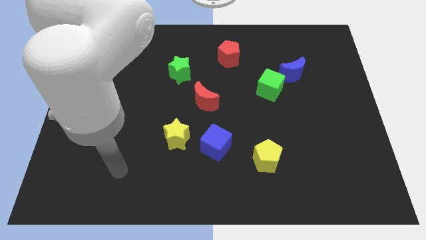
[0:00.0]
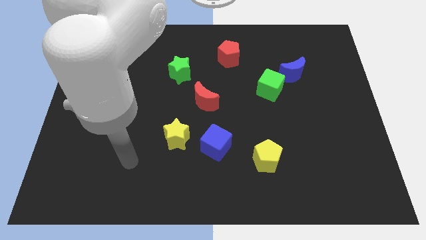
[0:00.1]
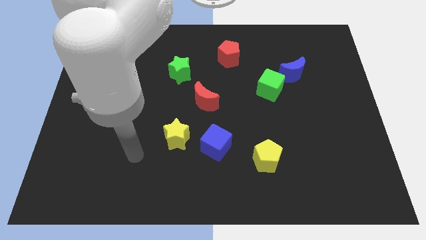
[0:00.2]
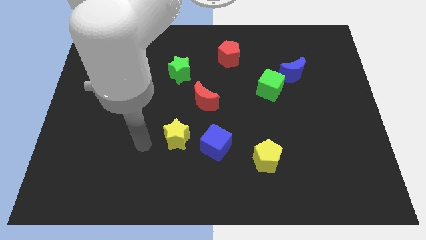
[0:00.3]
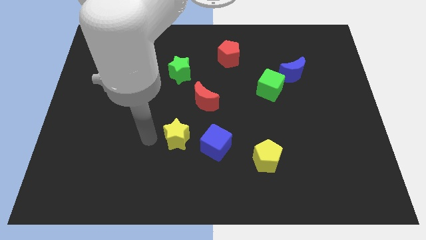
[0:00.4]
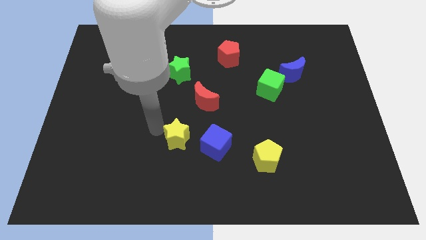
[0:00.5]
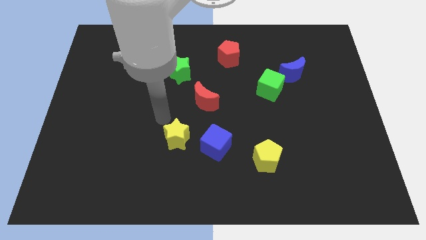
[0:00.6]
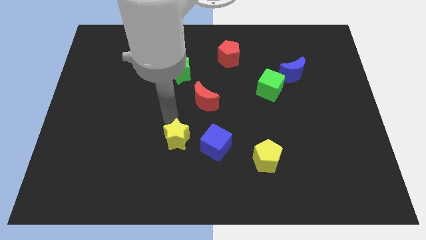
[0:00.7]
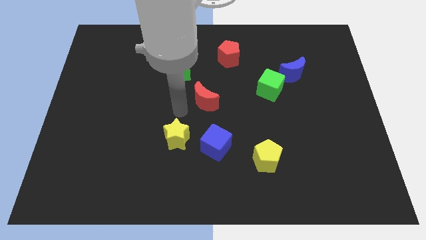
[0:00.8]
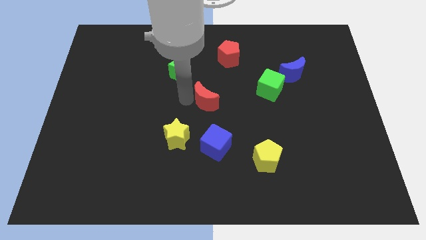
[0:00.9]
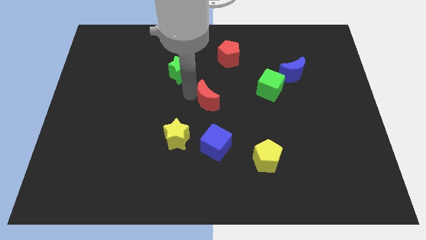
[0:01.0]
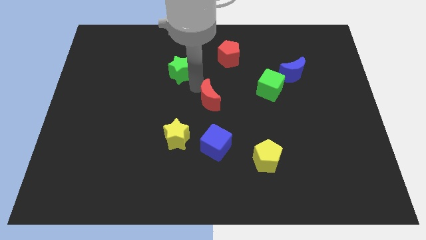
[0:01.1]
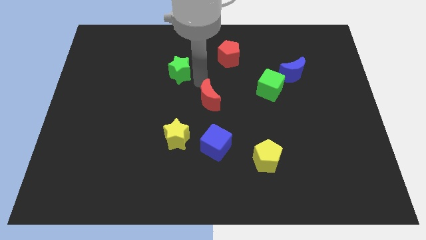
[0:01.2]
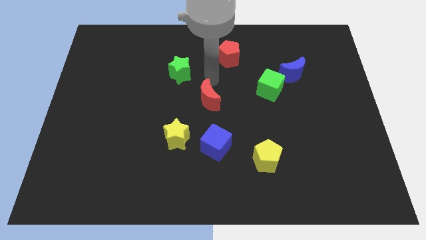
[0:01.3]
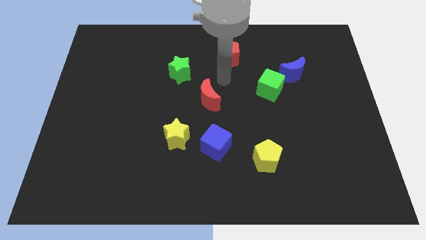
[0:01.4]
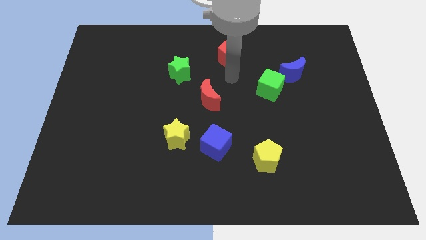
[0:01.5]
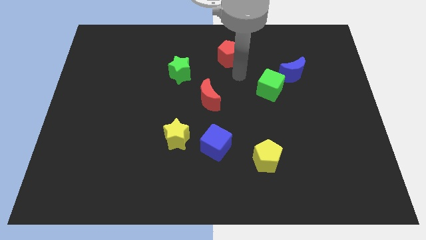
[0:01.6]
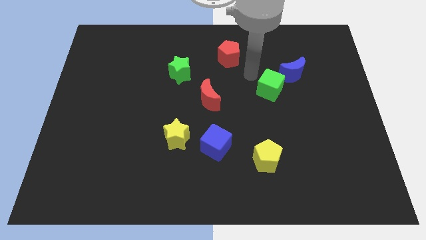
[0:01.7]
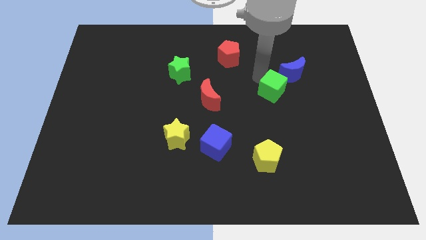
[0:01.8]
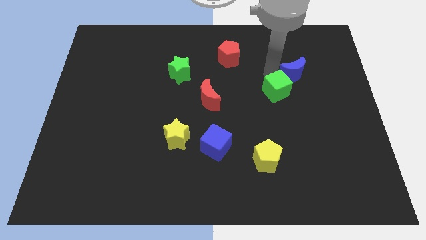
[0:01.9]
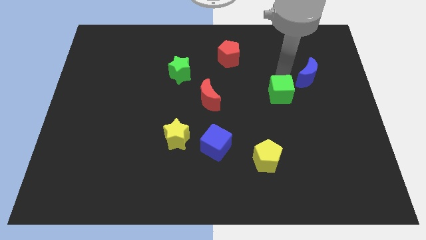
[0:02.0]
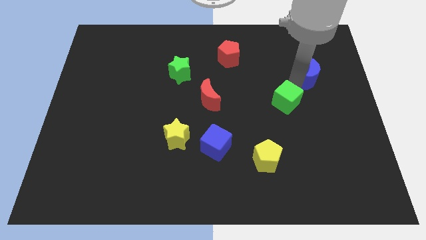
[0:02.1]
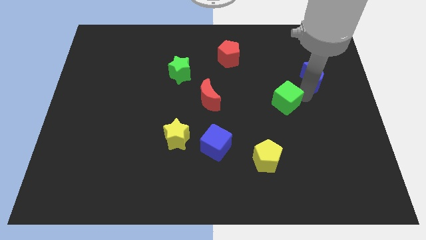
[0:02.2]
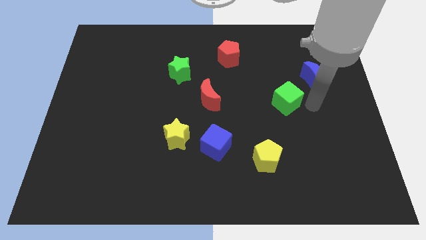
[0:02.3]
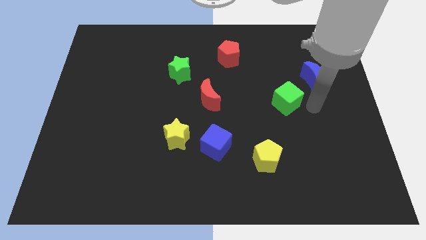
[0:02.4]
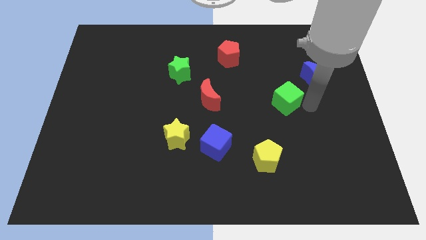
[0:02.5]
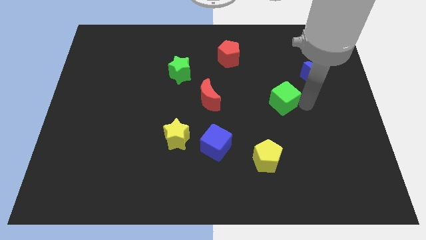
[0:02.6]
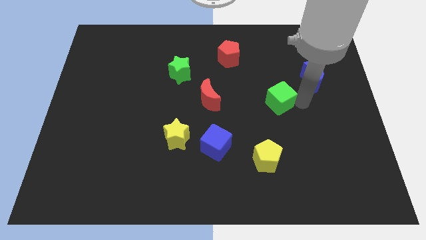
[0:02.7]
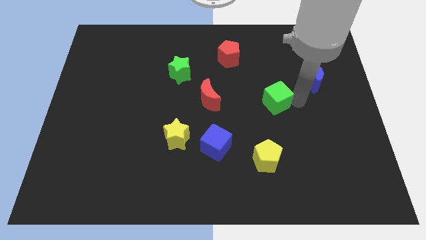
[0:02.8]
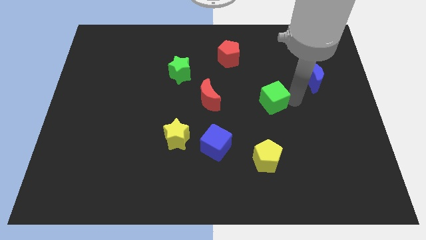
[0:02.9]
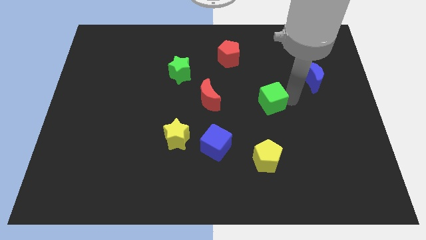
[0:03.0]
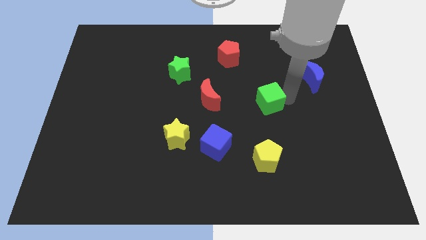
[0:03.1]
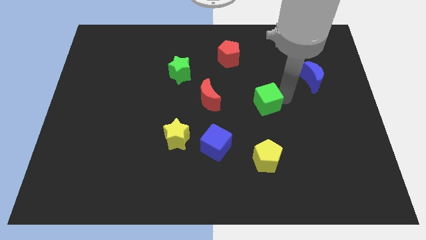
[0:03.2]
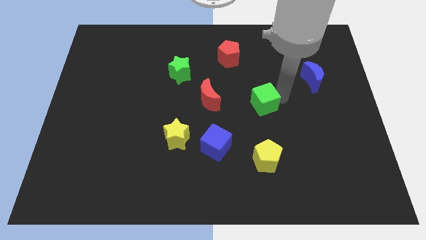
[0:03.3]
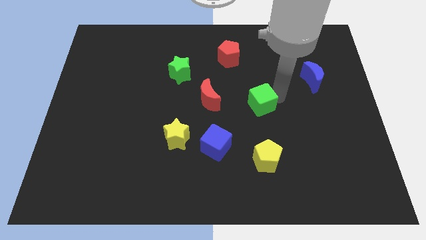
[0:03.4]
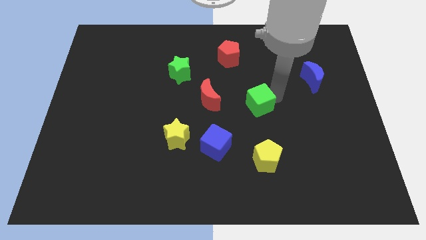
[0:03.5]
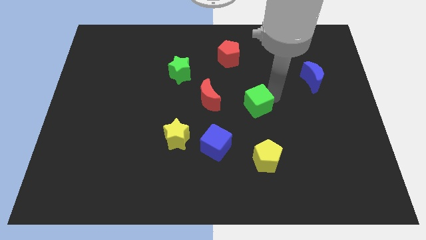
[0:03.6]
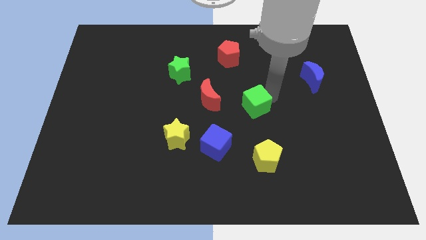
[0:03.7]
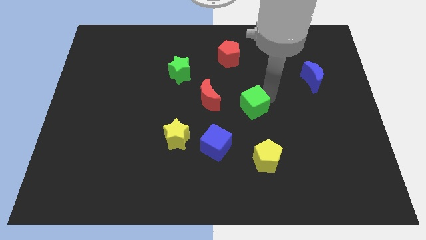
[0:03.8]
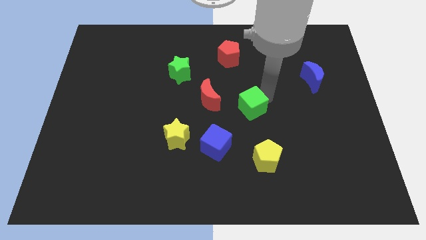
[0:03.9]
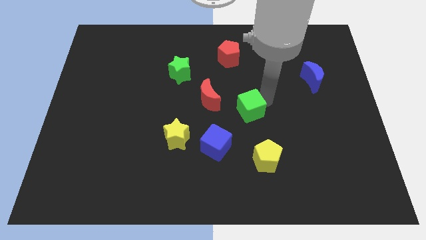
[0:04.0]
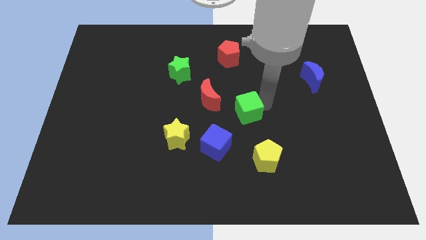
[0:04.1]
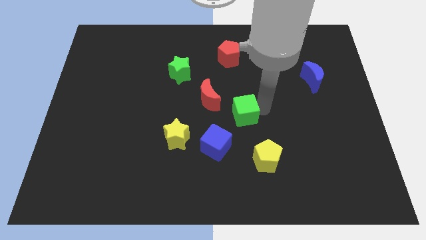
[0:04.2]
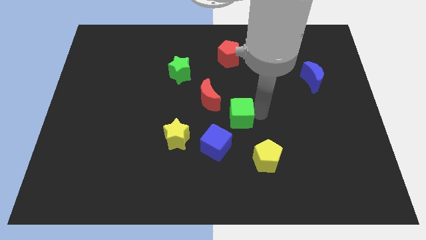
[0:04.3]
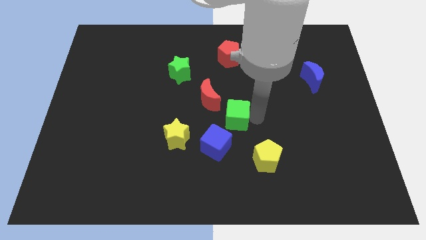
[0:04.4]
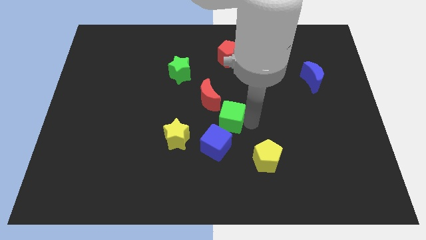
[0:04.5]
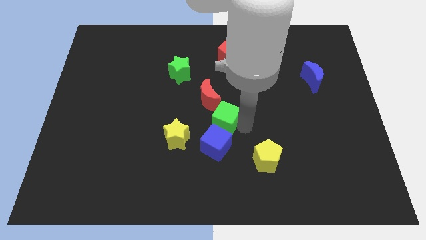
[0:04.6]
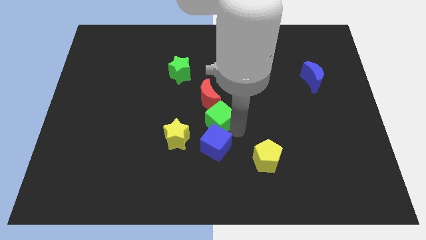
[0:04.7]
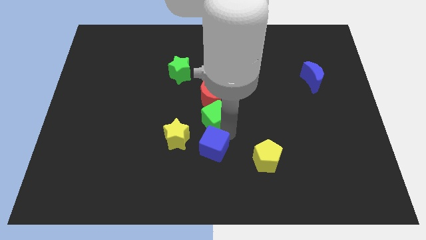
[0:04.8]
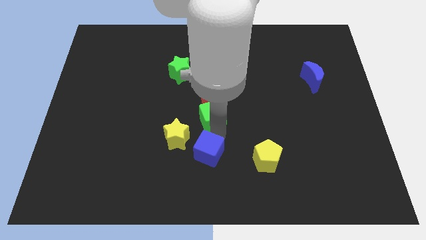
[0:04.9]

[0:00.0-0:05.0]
push the green cube close to the red moon

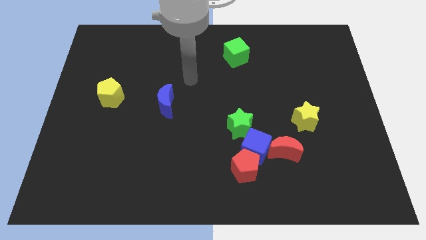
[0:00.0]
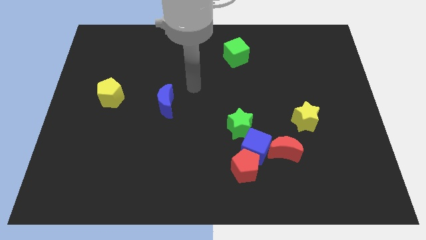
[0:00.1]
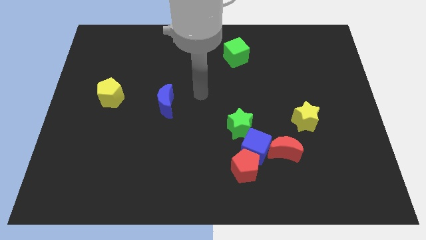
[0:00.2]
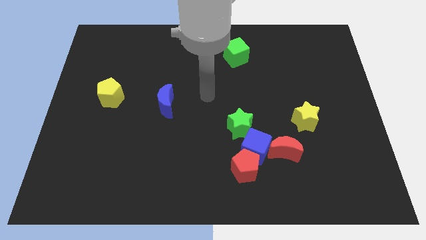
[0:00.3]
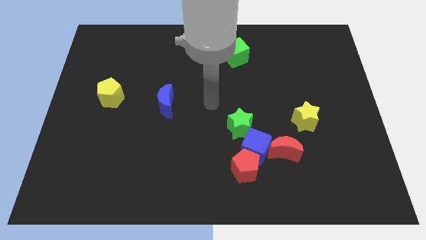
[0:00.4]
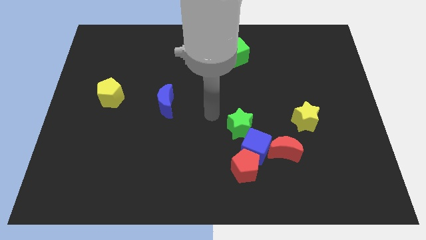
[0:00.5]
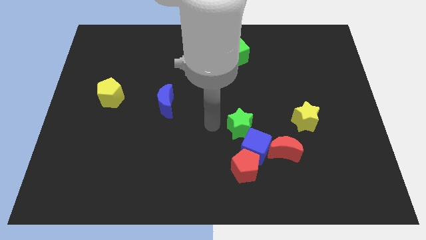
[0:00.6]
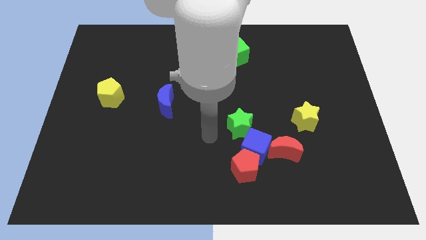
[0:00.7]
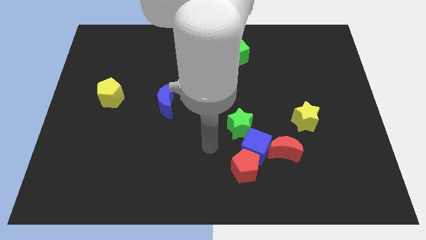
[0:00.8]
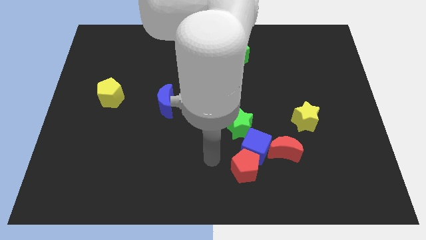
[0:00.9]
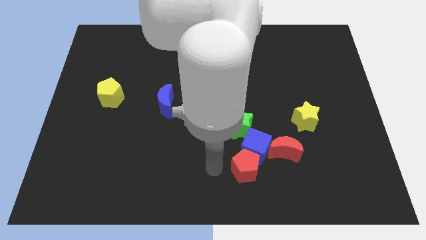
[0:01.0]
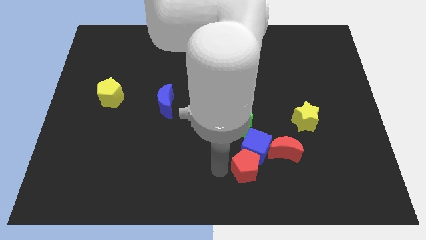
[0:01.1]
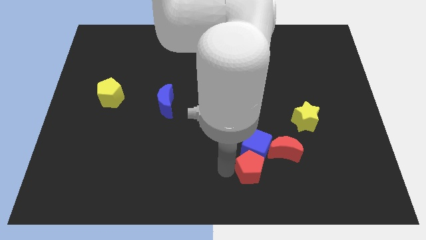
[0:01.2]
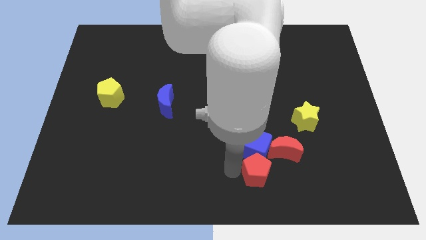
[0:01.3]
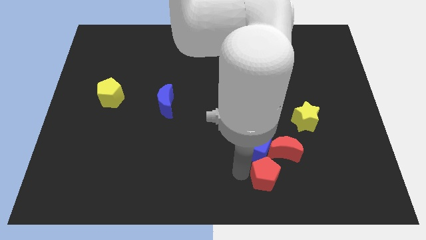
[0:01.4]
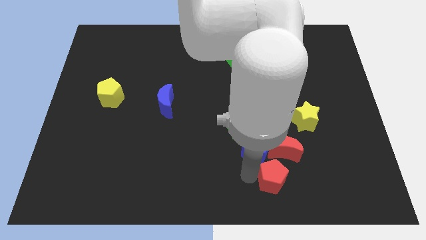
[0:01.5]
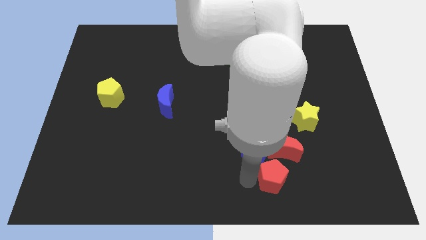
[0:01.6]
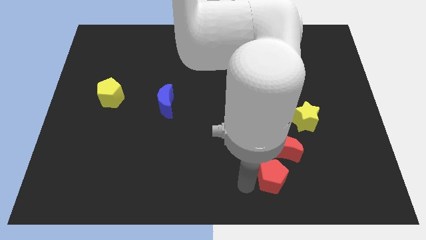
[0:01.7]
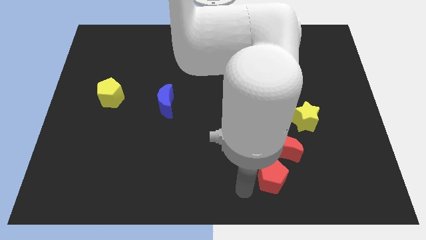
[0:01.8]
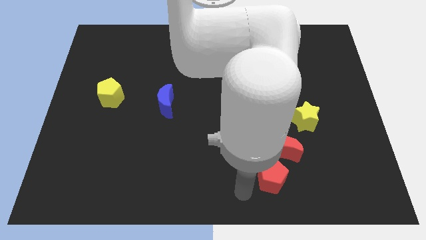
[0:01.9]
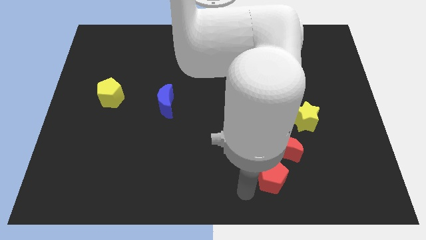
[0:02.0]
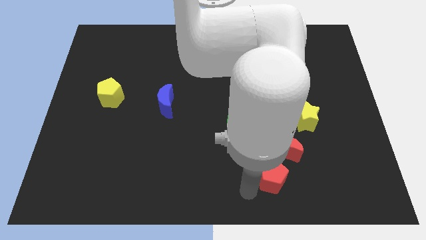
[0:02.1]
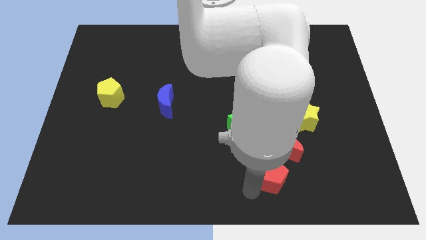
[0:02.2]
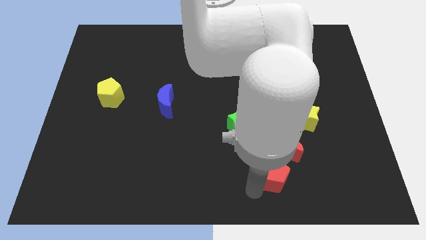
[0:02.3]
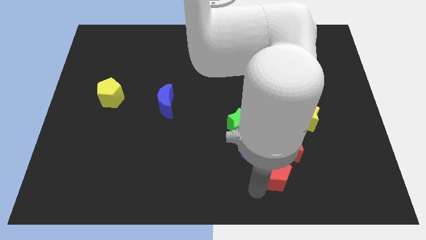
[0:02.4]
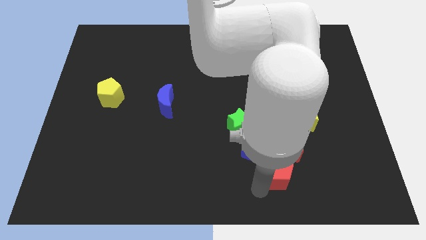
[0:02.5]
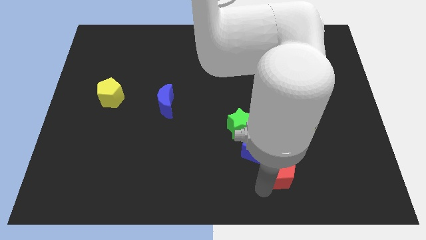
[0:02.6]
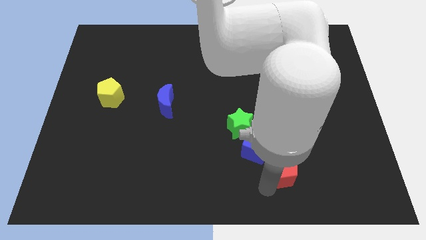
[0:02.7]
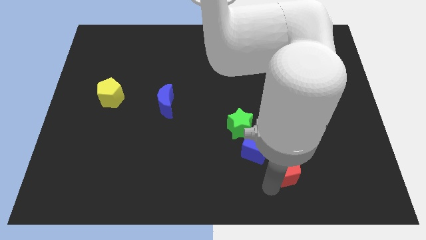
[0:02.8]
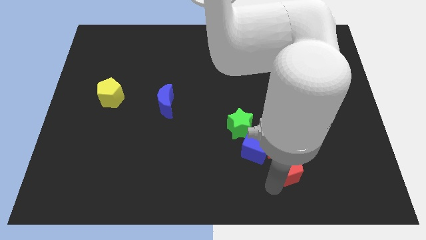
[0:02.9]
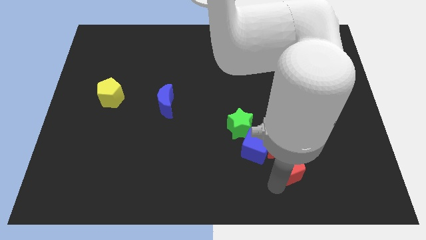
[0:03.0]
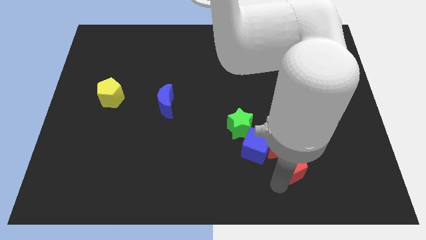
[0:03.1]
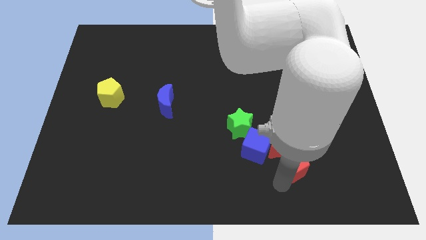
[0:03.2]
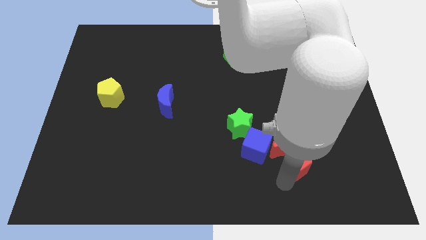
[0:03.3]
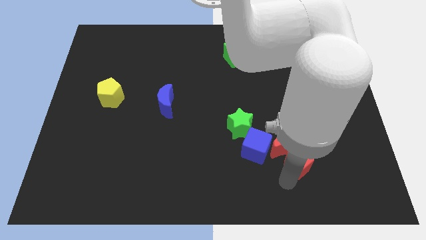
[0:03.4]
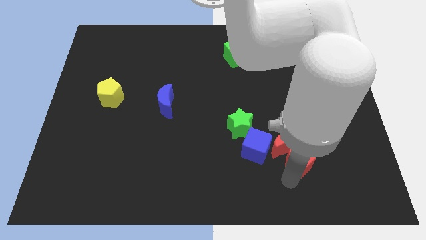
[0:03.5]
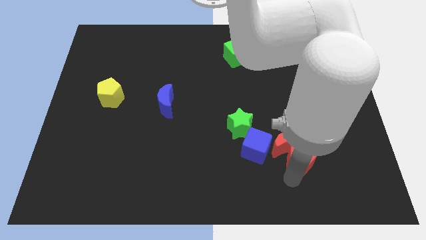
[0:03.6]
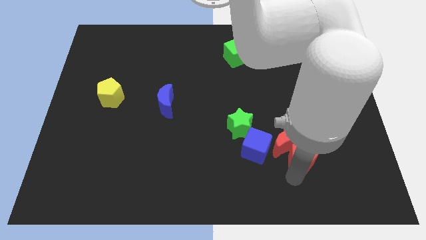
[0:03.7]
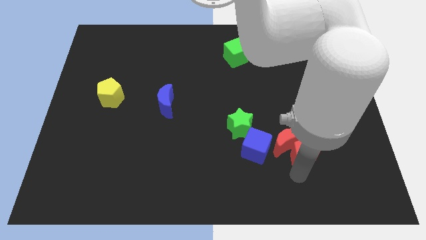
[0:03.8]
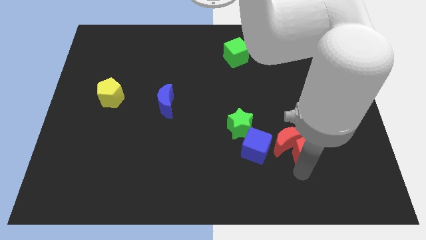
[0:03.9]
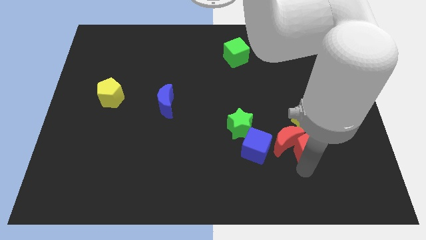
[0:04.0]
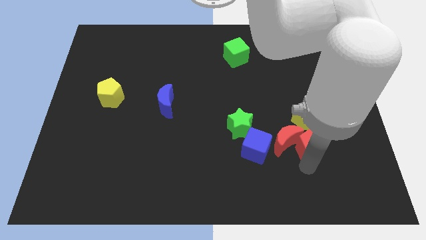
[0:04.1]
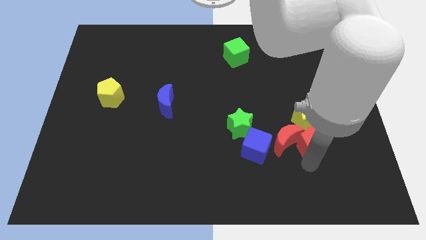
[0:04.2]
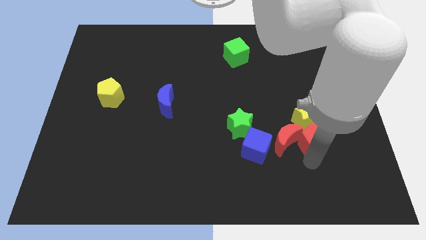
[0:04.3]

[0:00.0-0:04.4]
move the red pentagon to the yellow star
